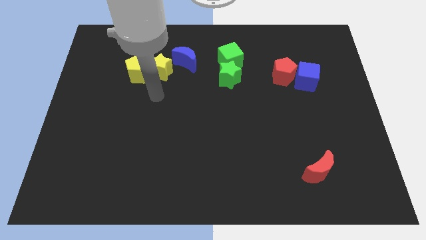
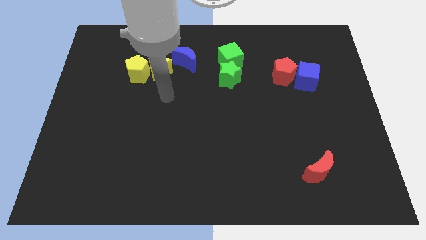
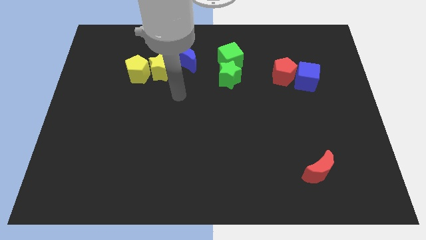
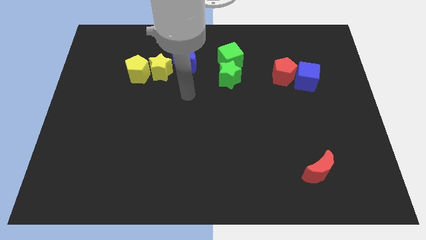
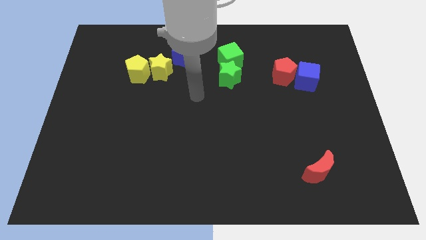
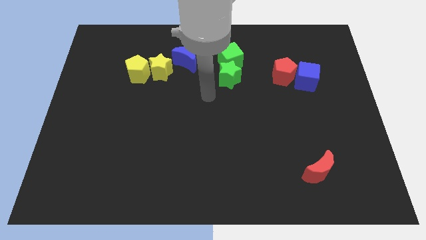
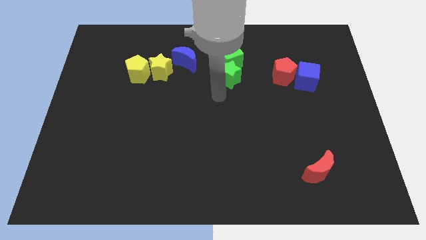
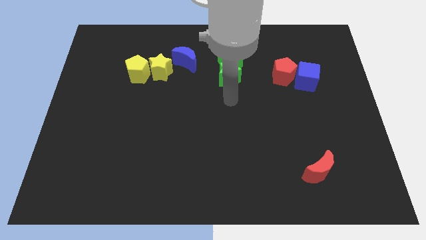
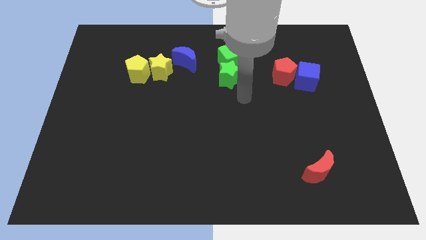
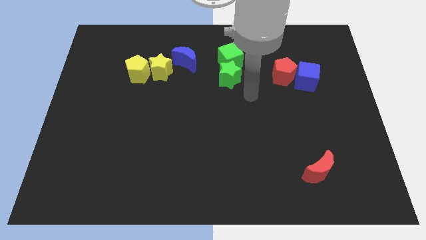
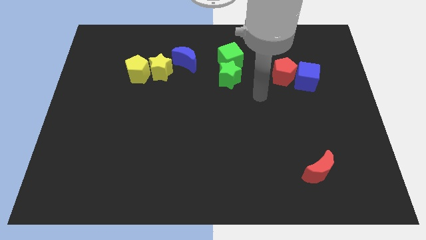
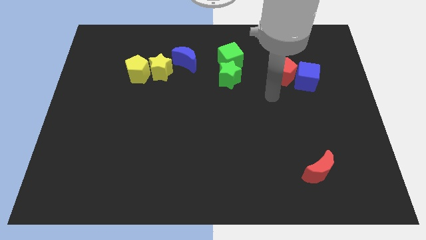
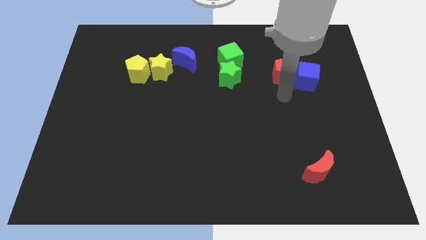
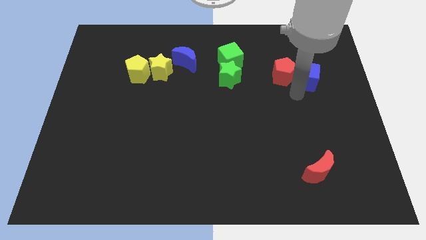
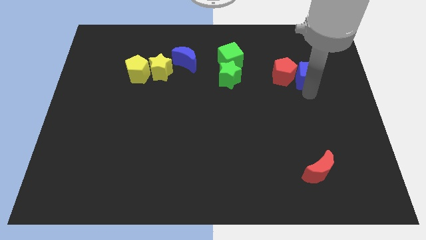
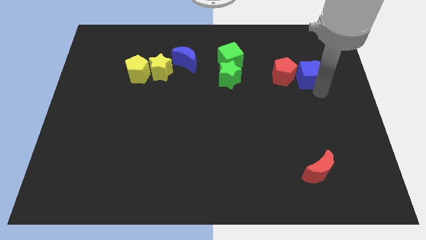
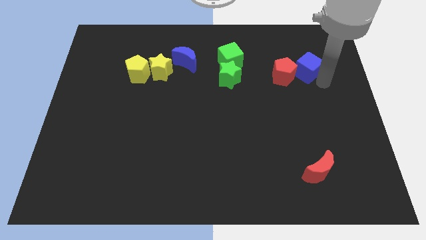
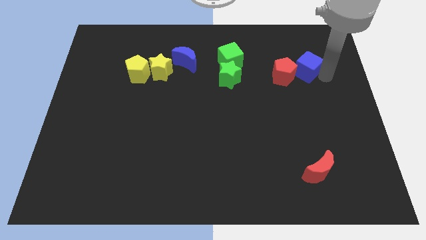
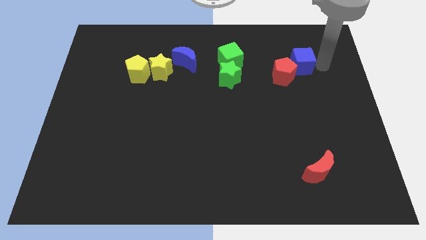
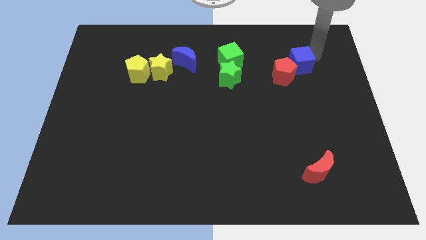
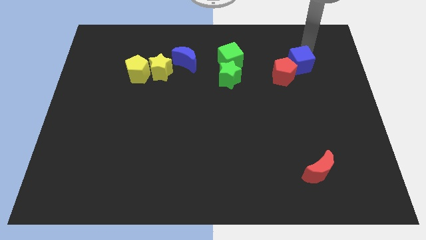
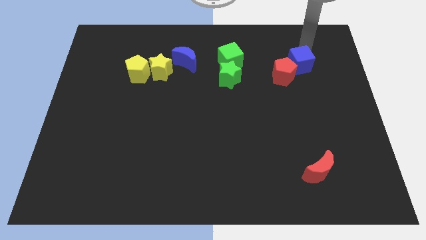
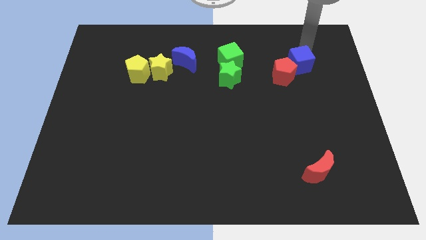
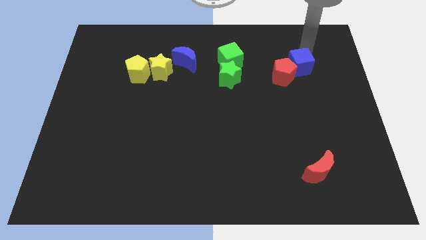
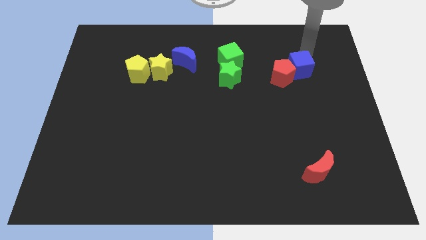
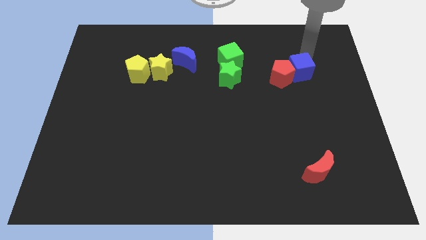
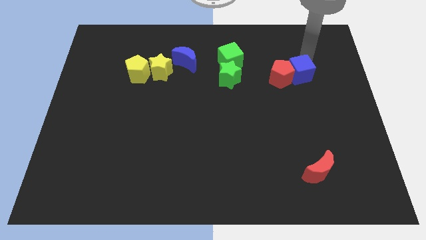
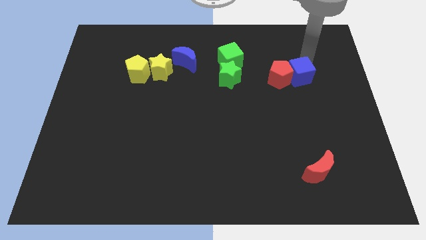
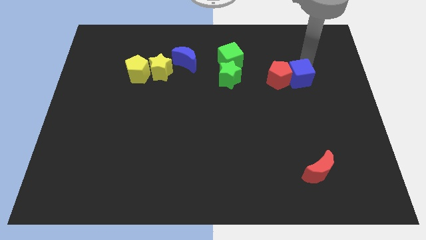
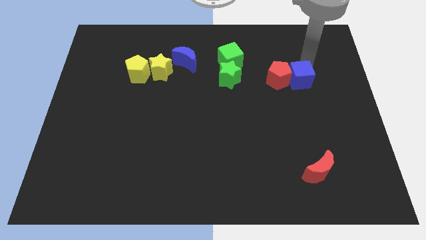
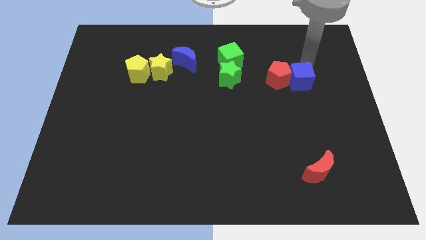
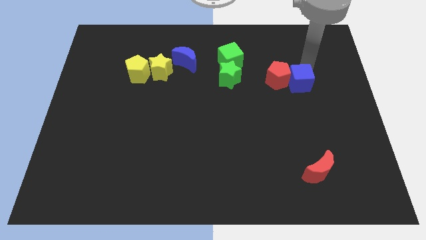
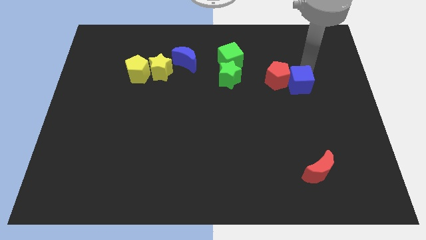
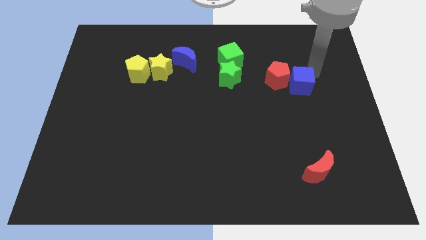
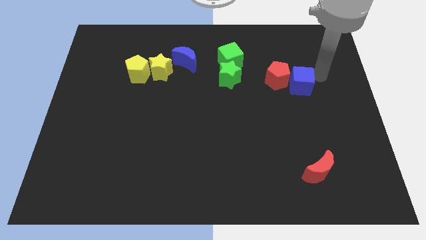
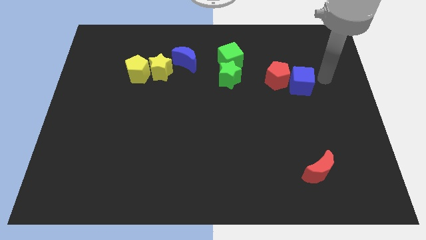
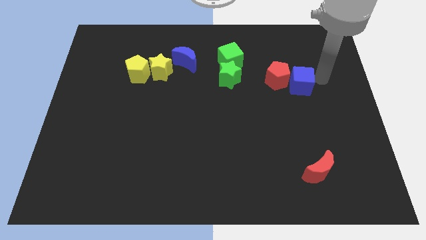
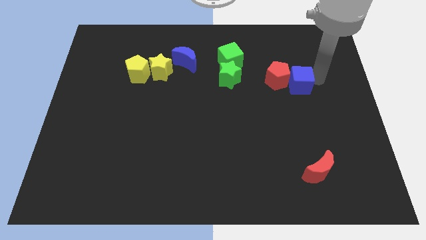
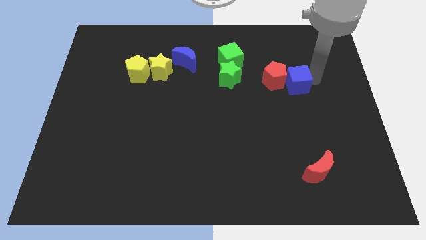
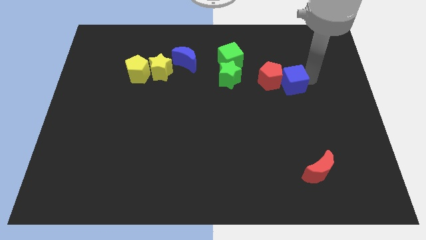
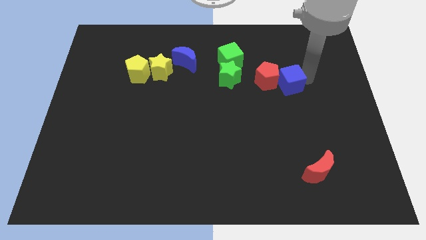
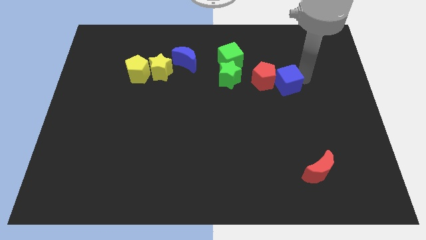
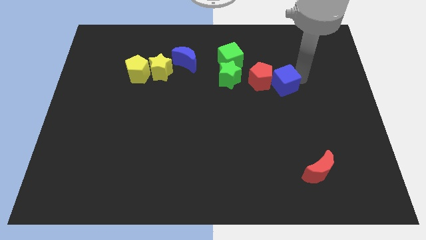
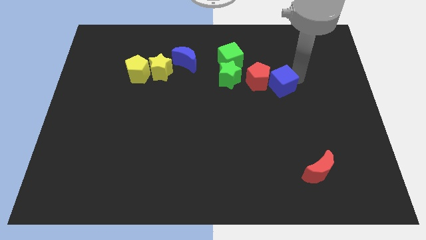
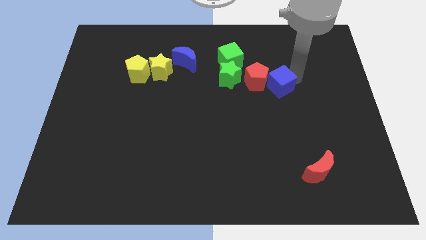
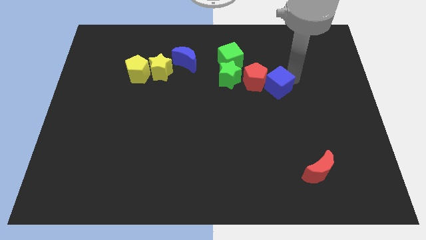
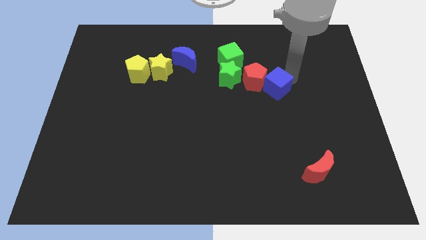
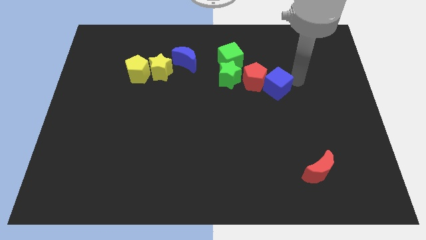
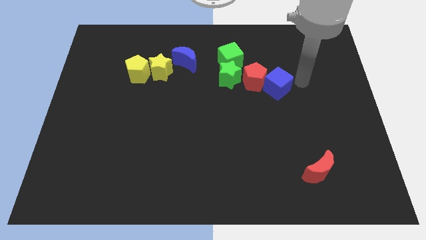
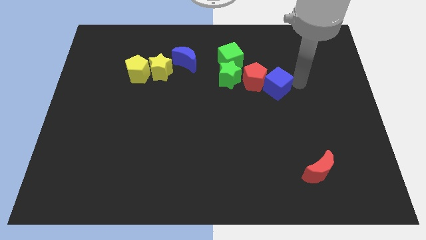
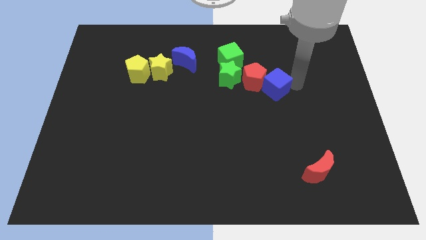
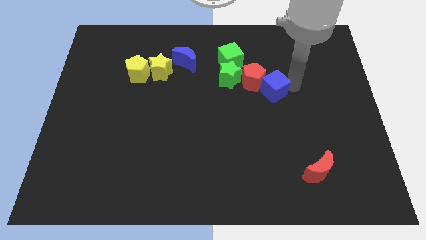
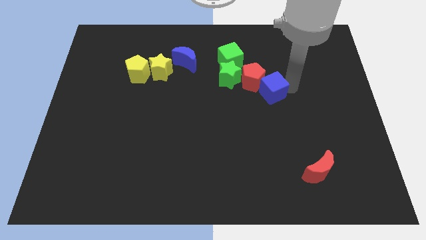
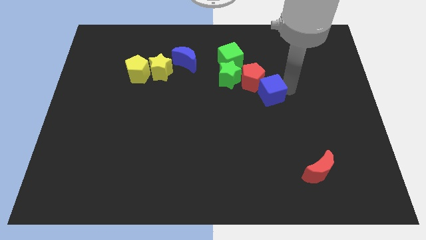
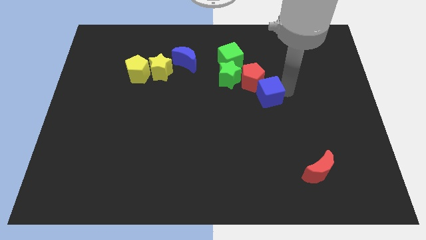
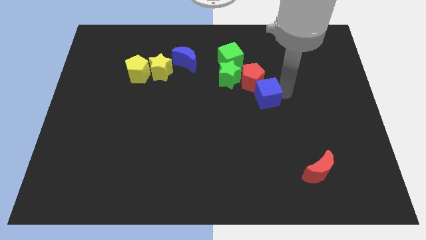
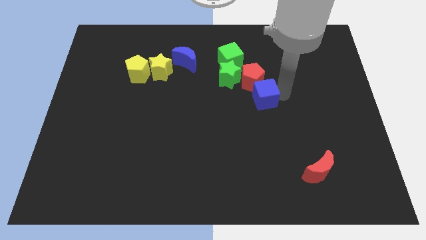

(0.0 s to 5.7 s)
put the blue cube to the middle of the board
